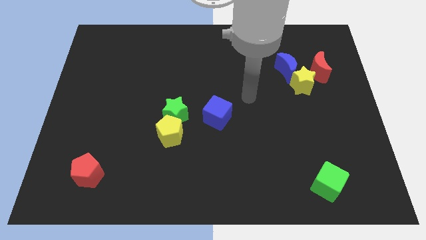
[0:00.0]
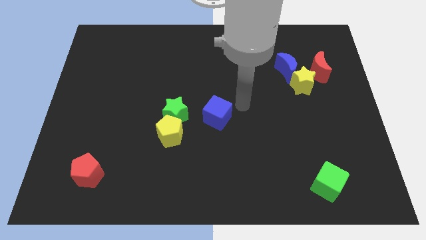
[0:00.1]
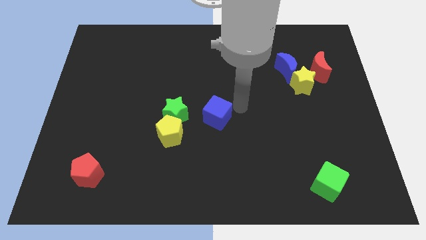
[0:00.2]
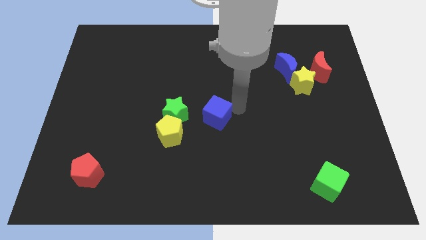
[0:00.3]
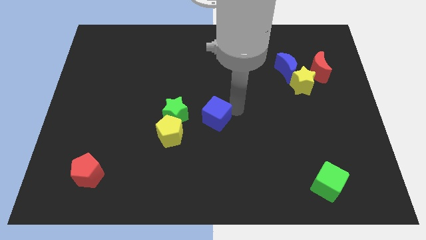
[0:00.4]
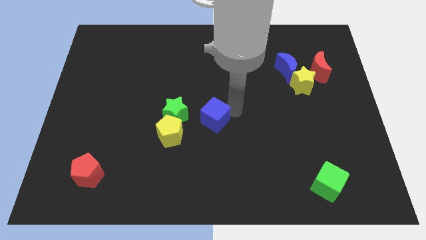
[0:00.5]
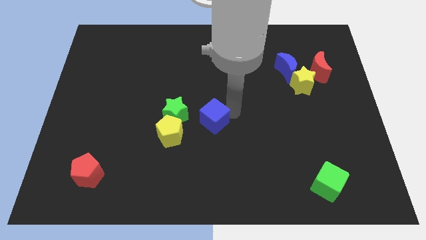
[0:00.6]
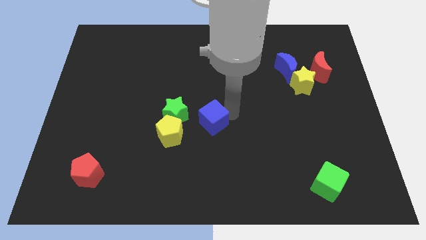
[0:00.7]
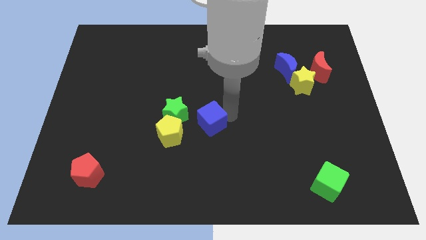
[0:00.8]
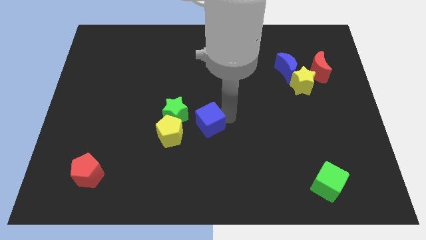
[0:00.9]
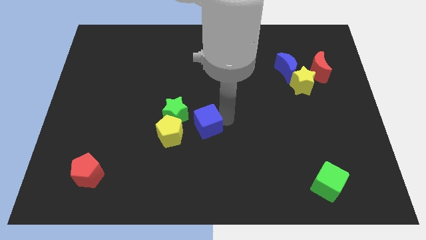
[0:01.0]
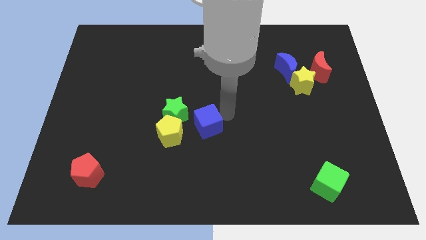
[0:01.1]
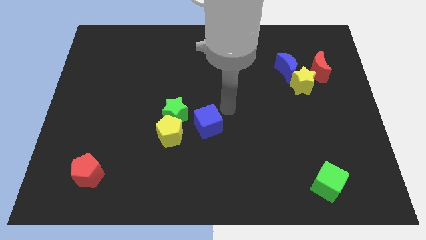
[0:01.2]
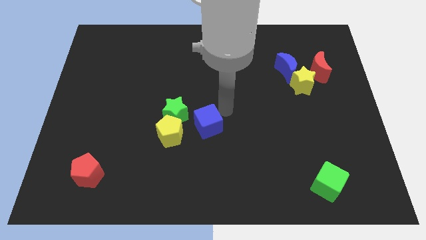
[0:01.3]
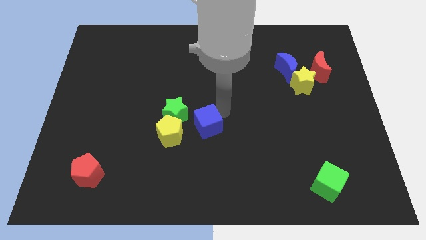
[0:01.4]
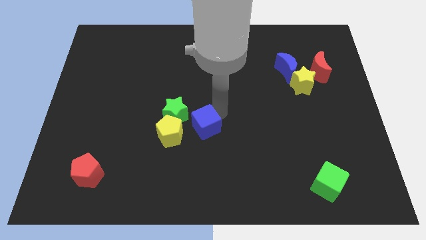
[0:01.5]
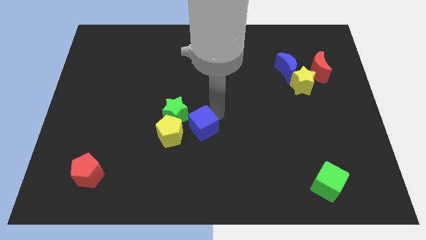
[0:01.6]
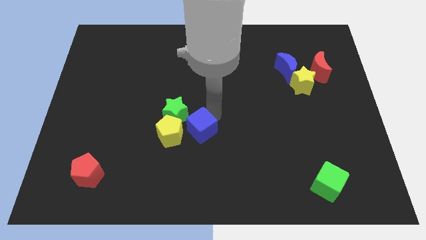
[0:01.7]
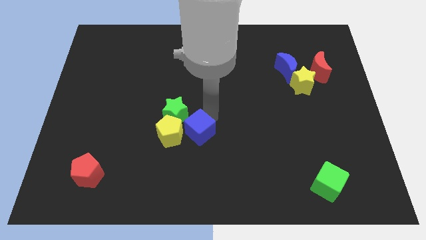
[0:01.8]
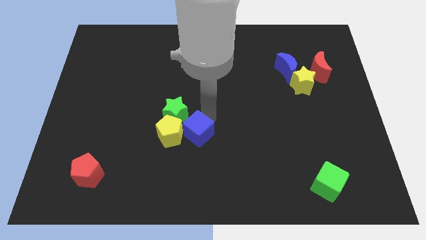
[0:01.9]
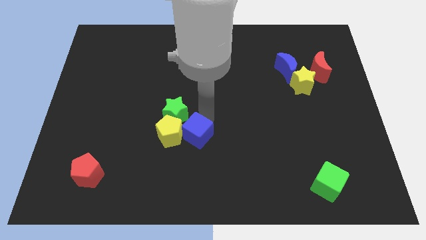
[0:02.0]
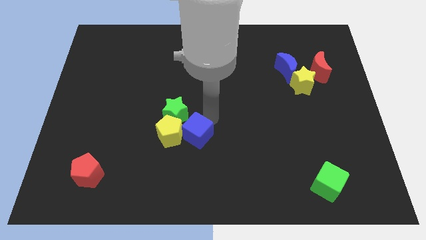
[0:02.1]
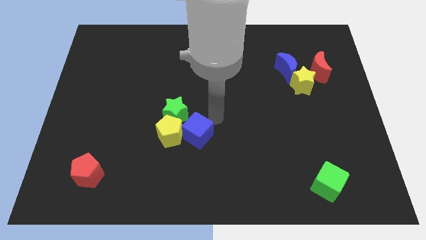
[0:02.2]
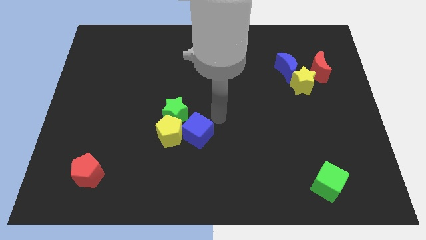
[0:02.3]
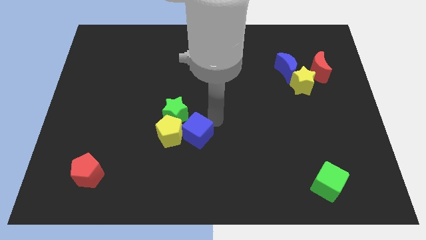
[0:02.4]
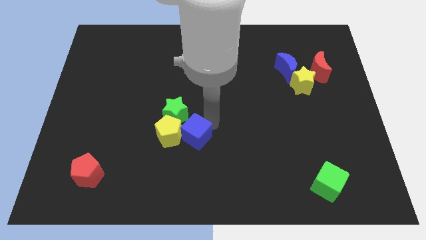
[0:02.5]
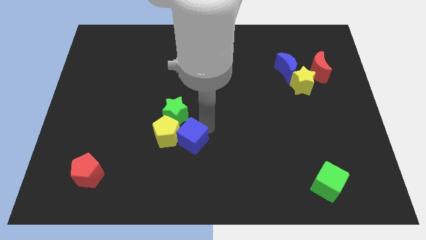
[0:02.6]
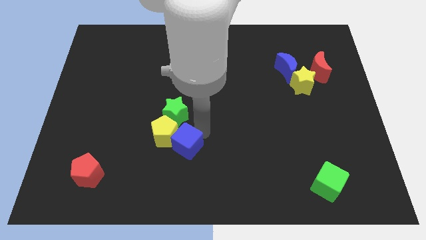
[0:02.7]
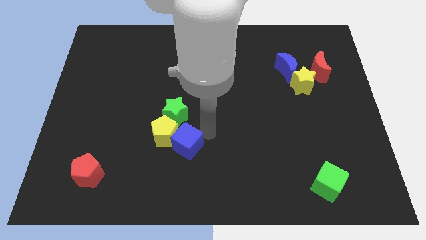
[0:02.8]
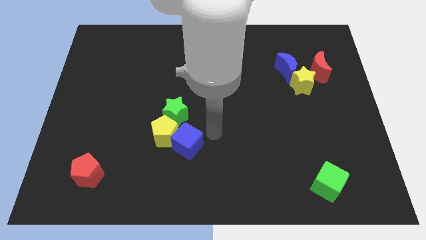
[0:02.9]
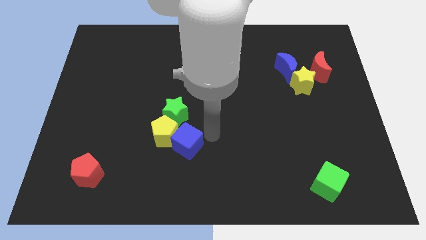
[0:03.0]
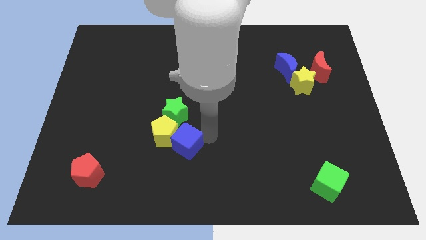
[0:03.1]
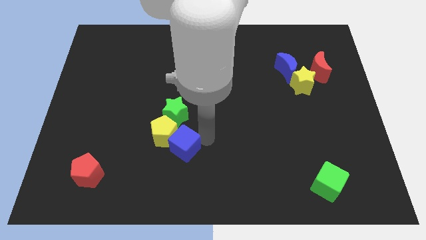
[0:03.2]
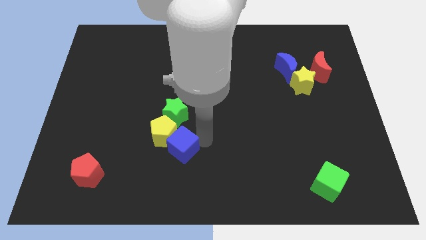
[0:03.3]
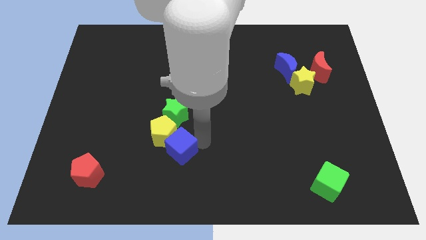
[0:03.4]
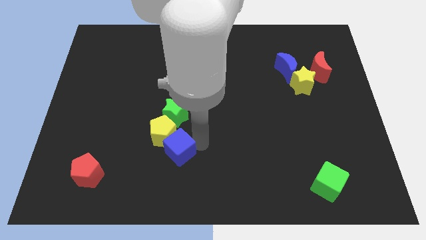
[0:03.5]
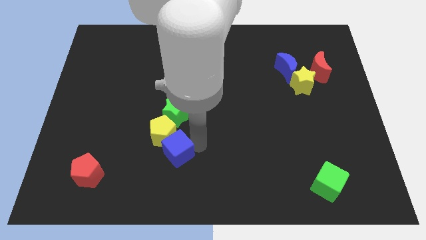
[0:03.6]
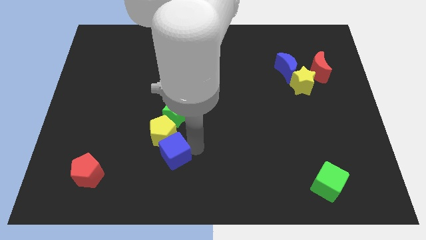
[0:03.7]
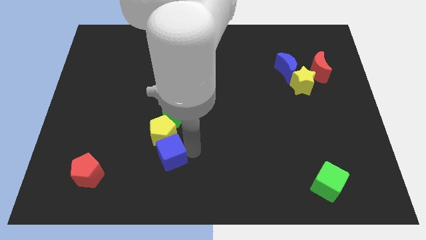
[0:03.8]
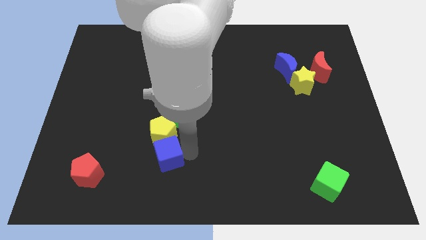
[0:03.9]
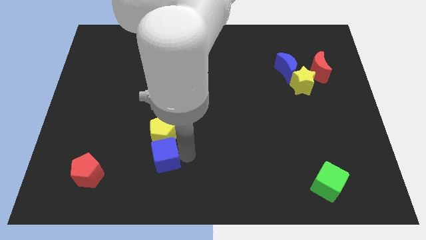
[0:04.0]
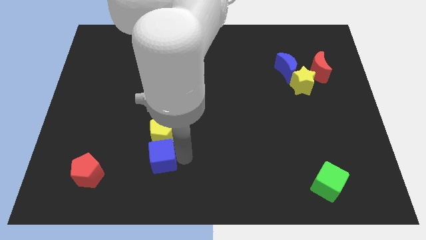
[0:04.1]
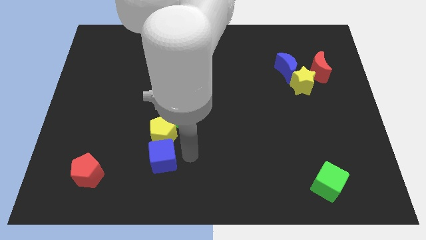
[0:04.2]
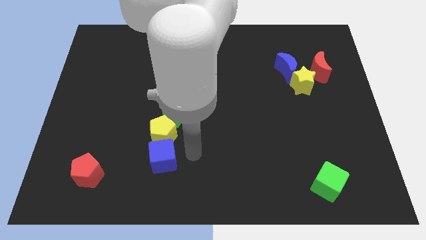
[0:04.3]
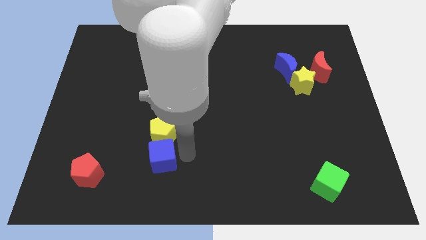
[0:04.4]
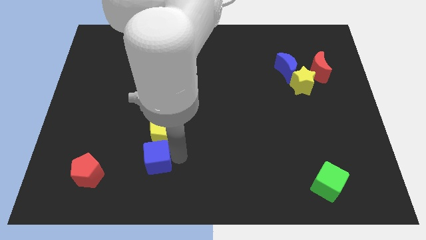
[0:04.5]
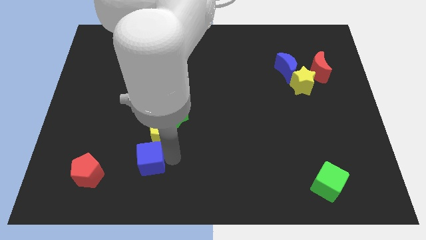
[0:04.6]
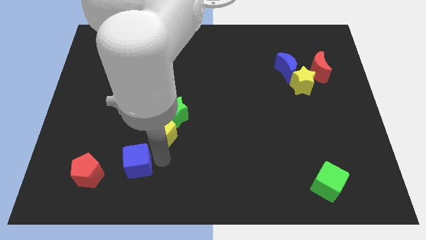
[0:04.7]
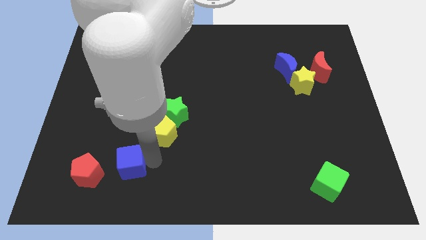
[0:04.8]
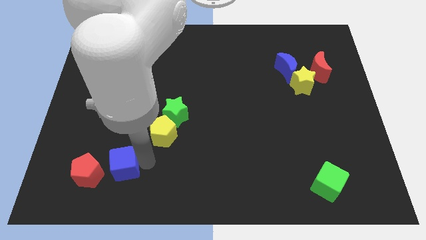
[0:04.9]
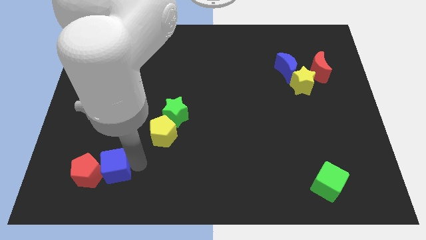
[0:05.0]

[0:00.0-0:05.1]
put the blue cube towards the red pentagon

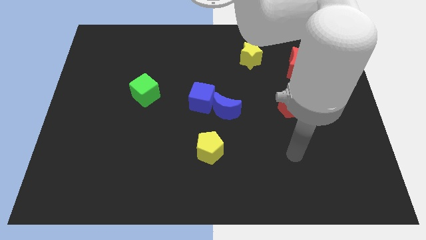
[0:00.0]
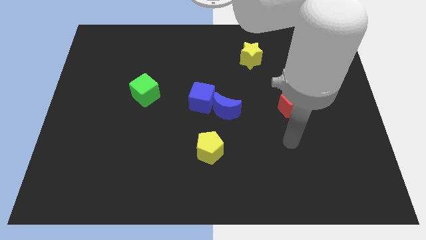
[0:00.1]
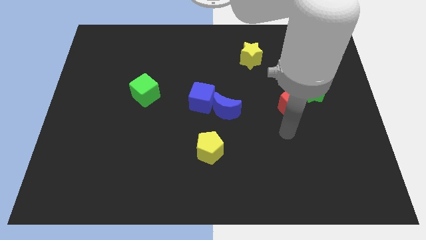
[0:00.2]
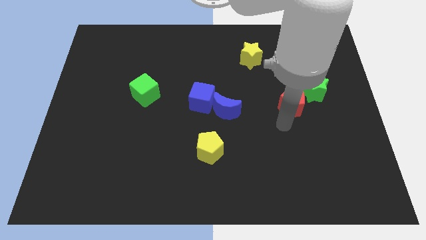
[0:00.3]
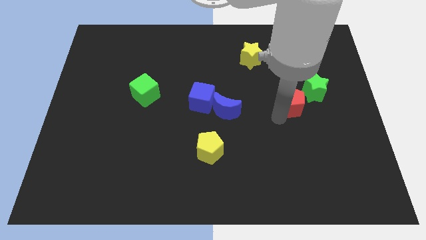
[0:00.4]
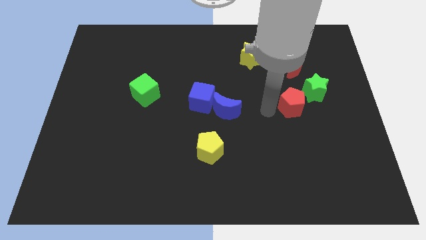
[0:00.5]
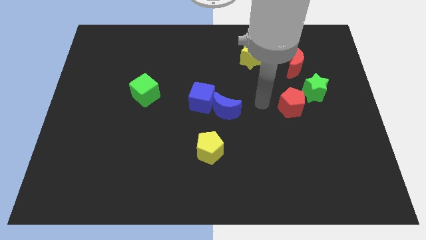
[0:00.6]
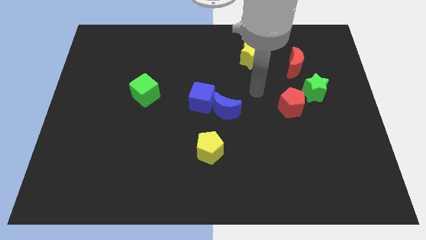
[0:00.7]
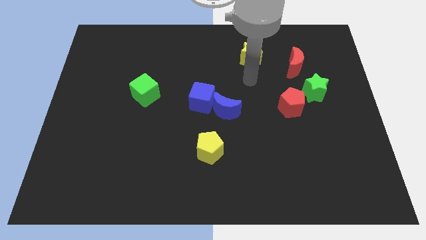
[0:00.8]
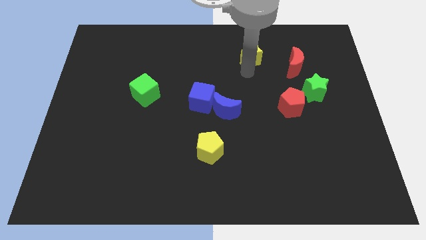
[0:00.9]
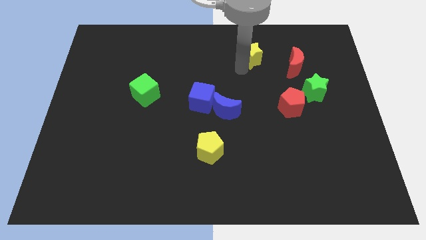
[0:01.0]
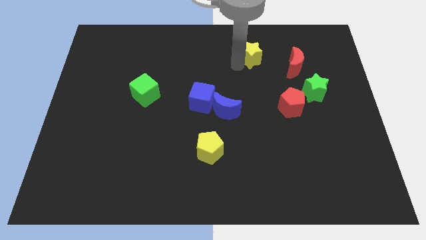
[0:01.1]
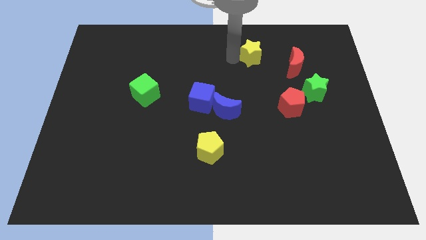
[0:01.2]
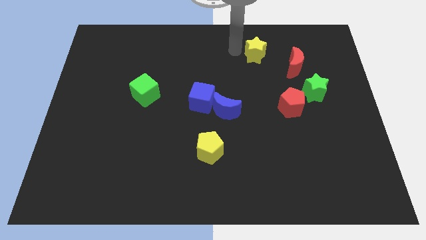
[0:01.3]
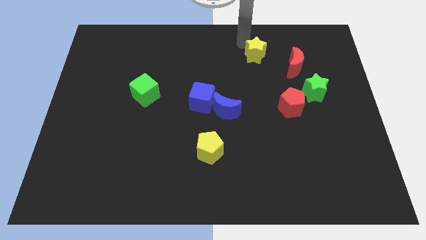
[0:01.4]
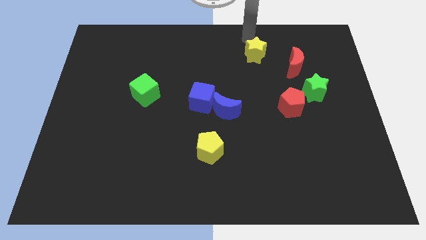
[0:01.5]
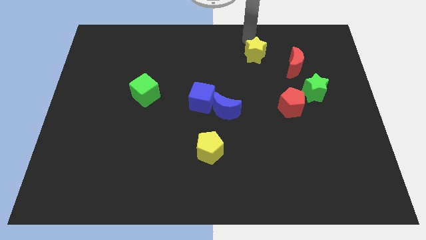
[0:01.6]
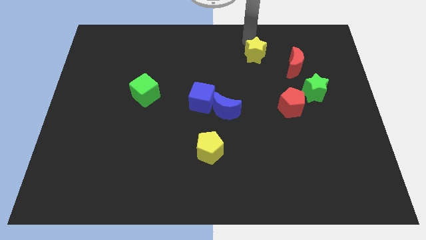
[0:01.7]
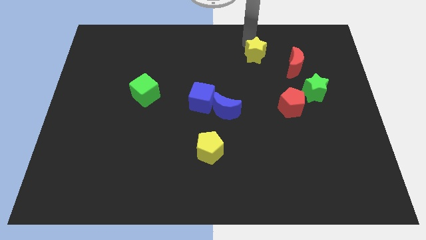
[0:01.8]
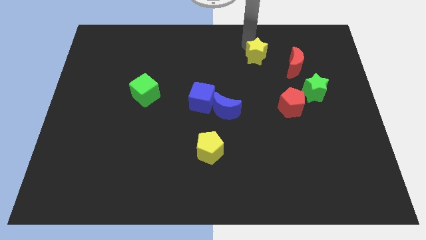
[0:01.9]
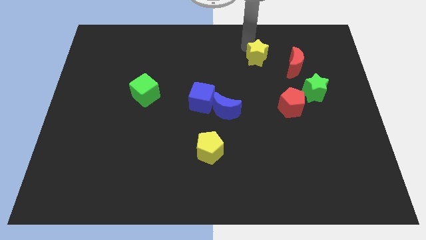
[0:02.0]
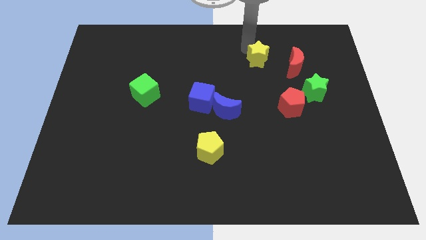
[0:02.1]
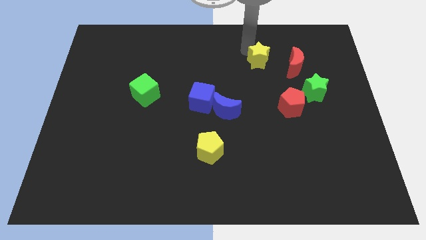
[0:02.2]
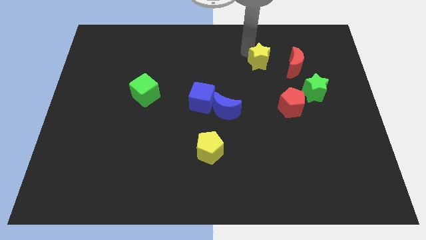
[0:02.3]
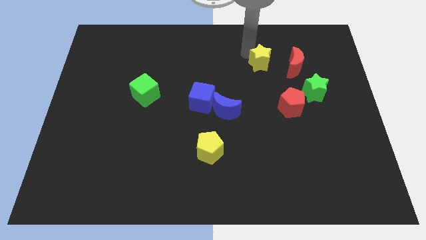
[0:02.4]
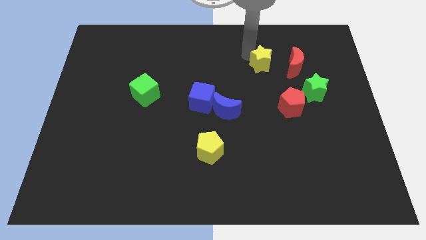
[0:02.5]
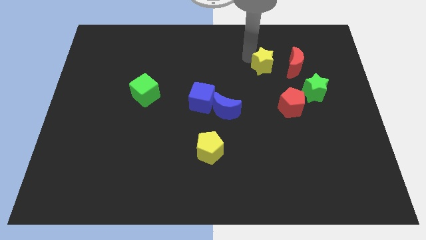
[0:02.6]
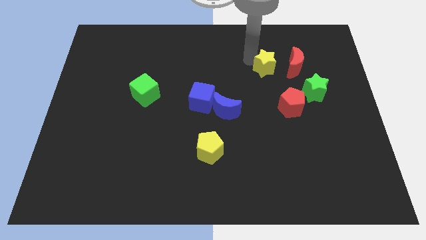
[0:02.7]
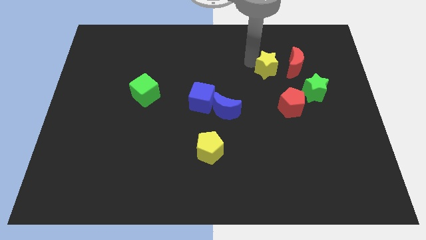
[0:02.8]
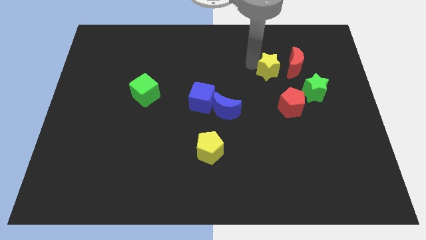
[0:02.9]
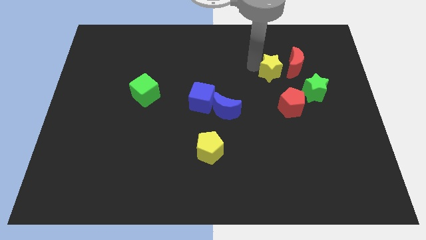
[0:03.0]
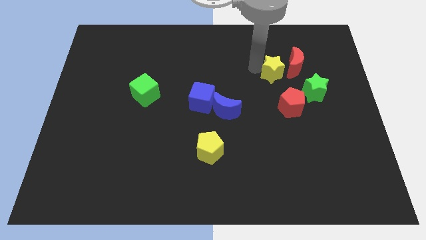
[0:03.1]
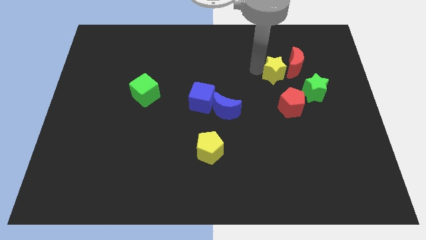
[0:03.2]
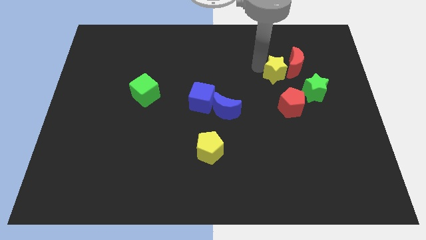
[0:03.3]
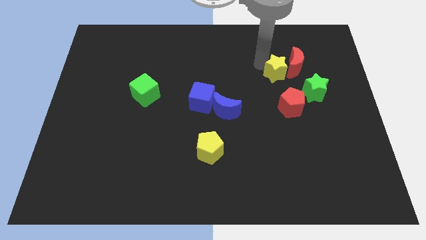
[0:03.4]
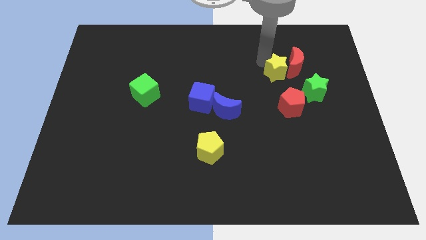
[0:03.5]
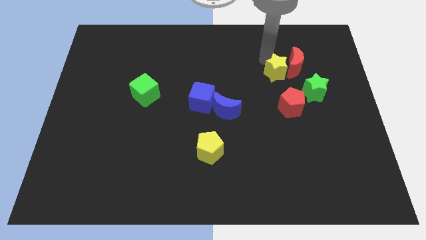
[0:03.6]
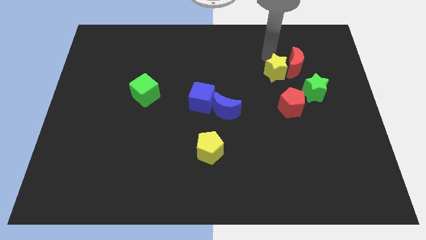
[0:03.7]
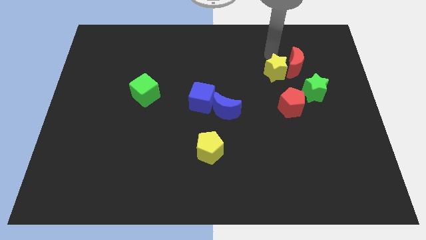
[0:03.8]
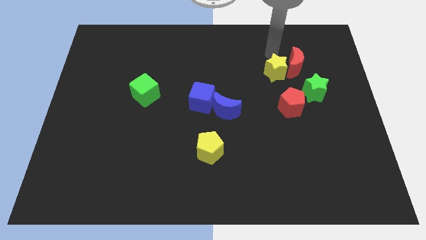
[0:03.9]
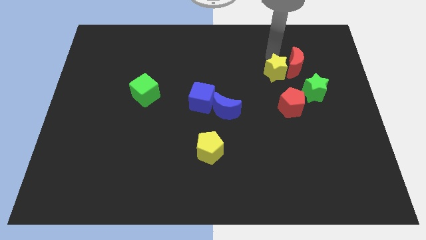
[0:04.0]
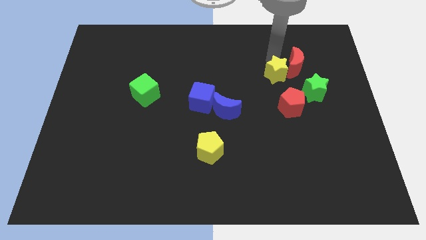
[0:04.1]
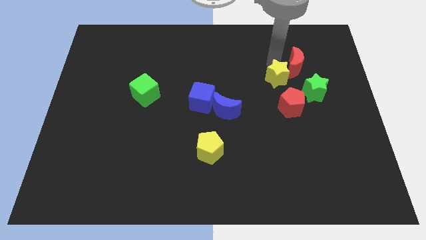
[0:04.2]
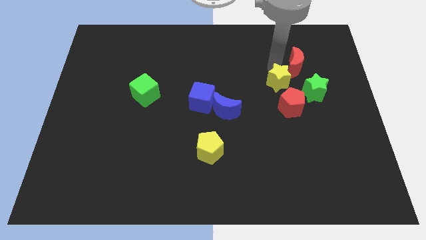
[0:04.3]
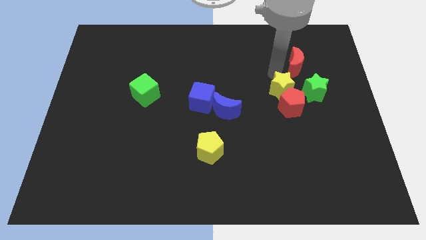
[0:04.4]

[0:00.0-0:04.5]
slide the yellow star to the red pentagon
